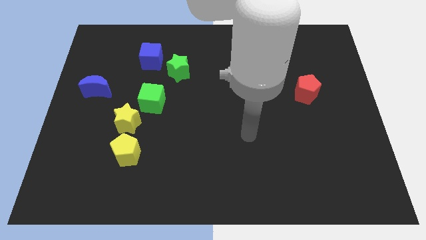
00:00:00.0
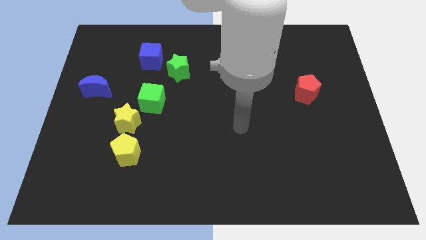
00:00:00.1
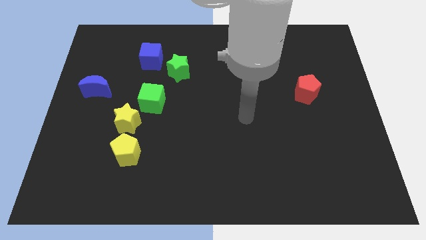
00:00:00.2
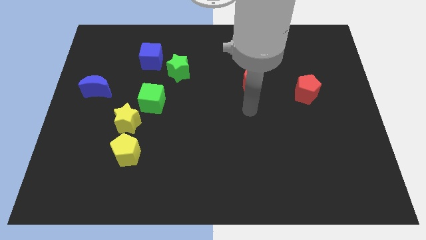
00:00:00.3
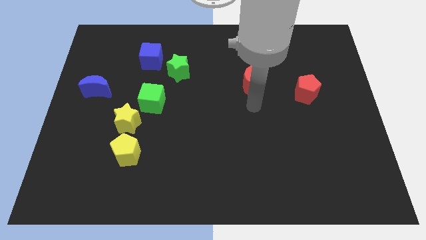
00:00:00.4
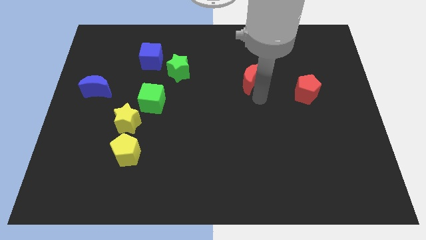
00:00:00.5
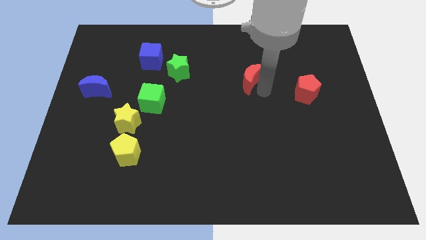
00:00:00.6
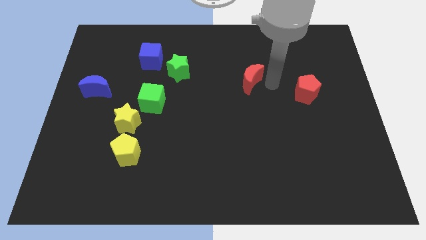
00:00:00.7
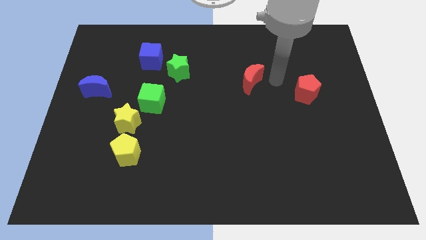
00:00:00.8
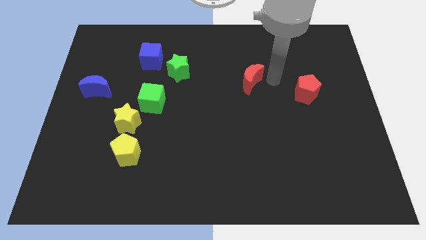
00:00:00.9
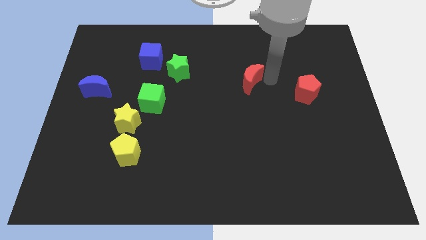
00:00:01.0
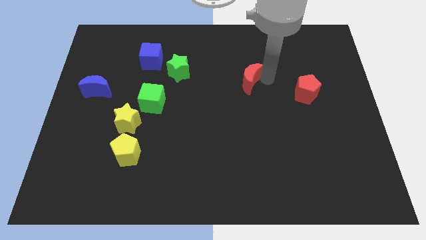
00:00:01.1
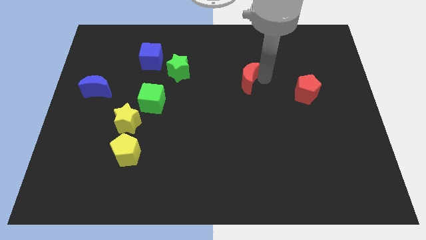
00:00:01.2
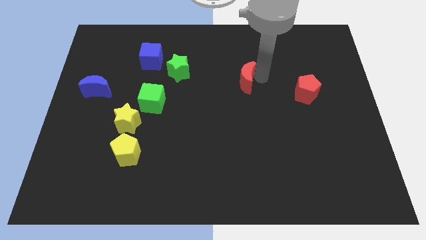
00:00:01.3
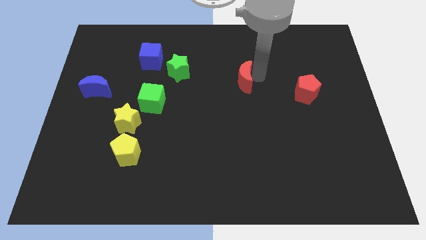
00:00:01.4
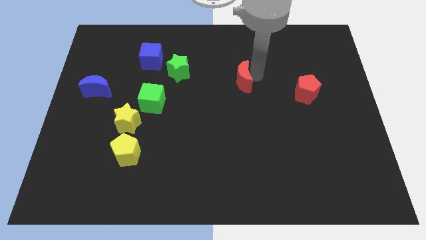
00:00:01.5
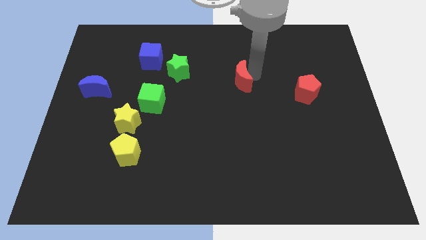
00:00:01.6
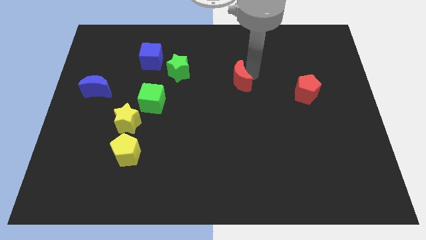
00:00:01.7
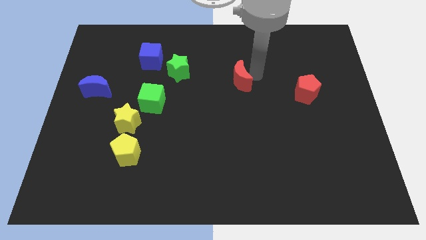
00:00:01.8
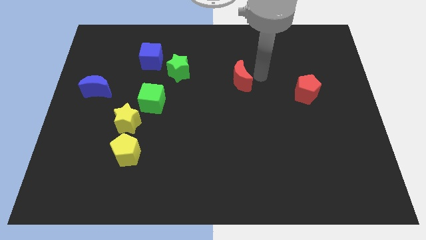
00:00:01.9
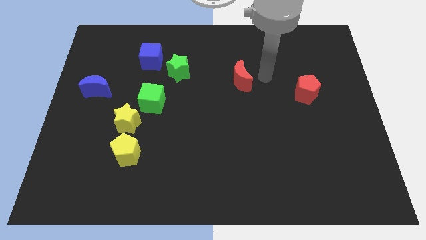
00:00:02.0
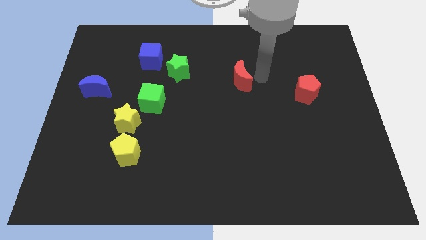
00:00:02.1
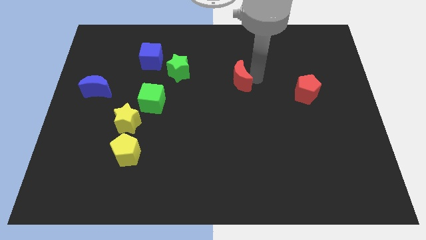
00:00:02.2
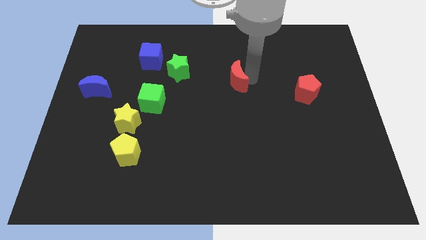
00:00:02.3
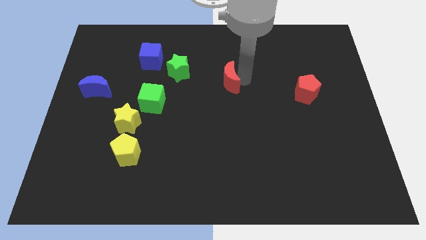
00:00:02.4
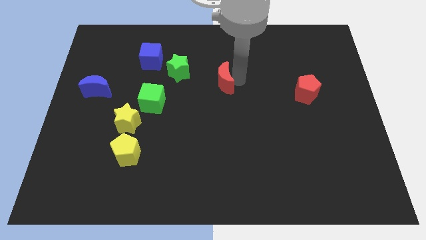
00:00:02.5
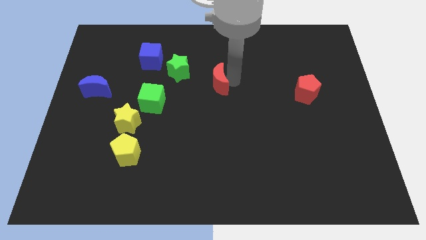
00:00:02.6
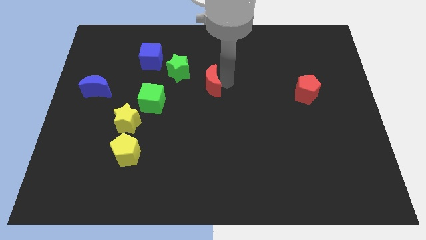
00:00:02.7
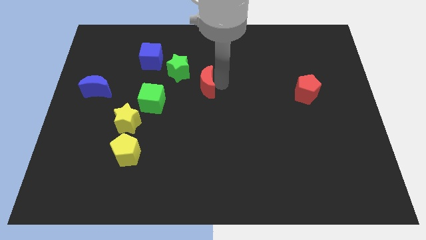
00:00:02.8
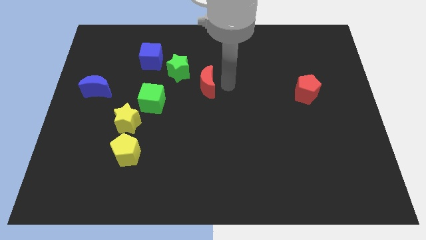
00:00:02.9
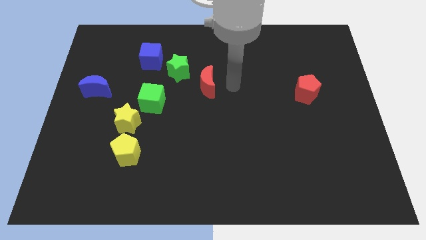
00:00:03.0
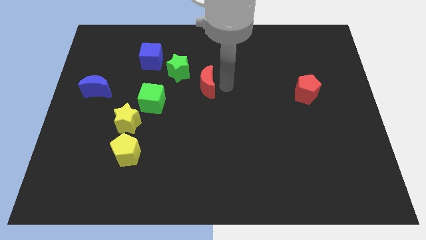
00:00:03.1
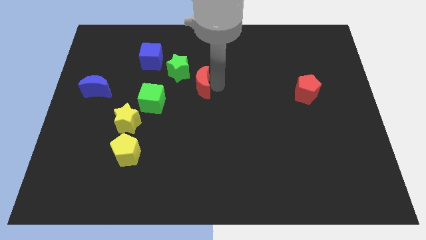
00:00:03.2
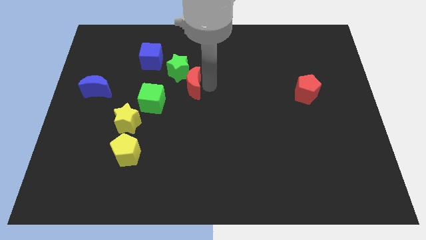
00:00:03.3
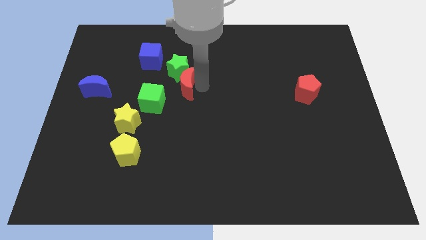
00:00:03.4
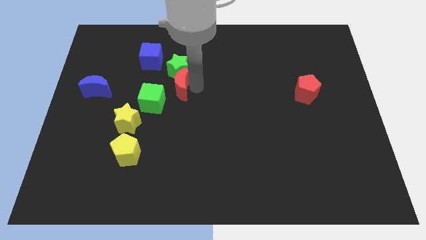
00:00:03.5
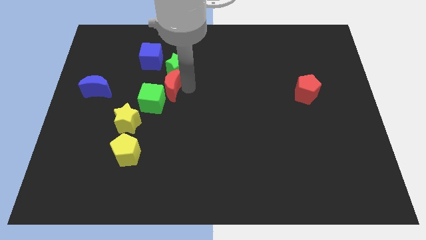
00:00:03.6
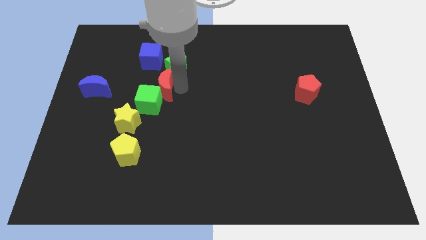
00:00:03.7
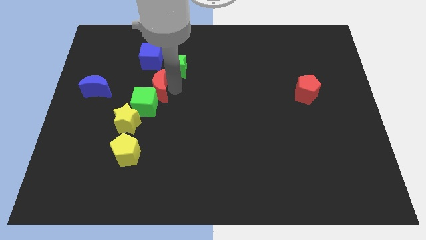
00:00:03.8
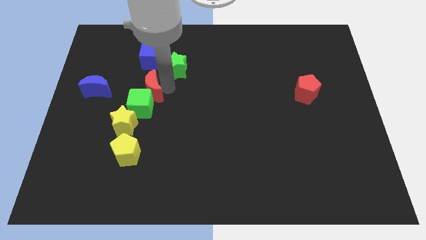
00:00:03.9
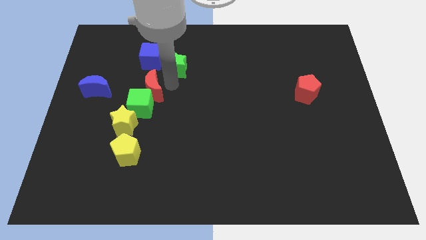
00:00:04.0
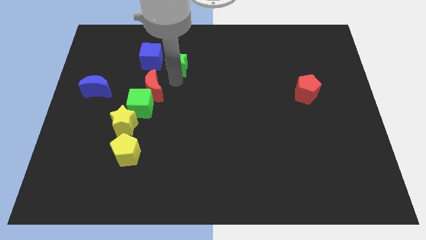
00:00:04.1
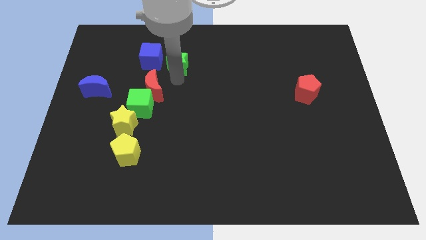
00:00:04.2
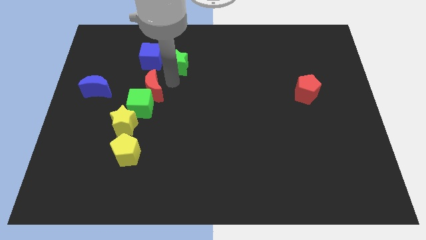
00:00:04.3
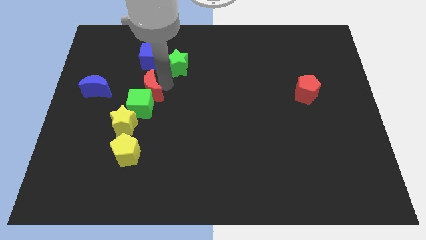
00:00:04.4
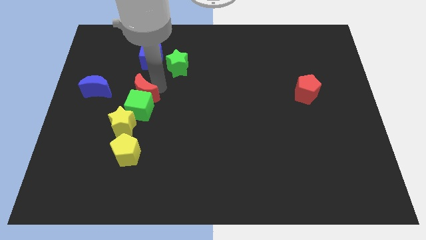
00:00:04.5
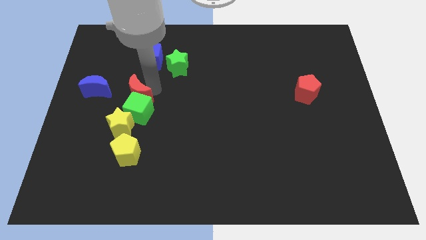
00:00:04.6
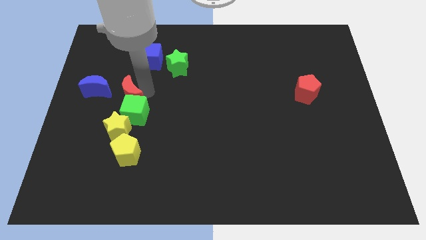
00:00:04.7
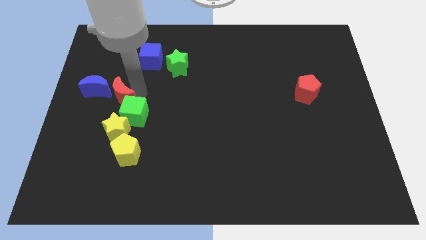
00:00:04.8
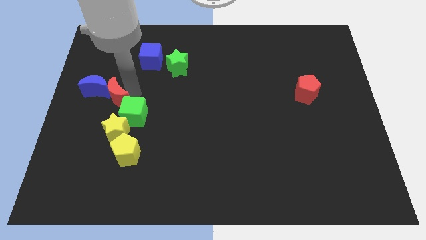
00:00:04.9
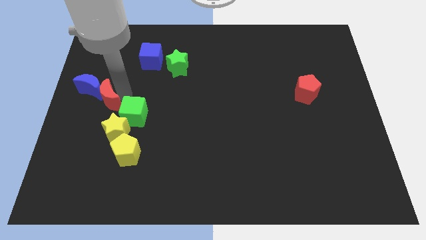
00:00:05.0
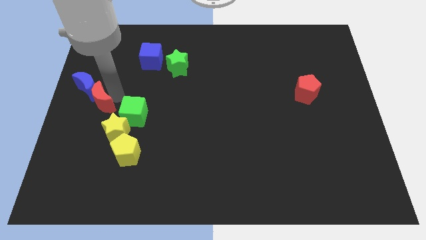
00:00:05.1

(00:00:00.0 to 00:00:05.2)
slide the red moon to the center left

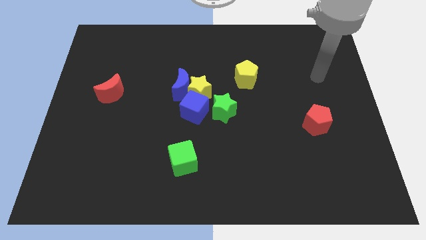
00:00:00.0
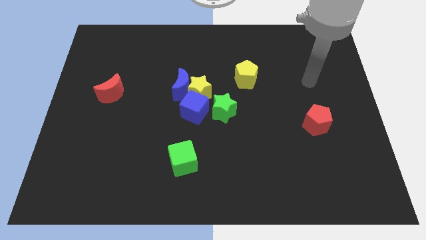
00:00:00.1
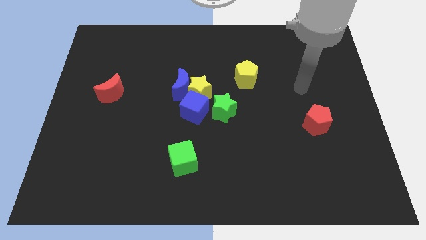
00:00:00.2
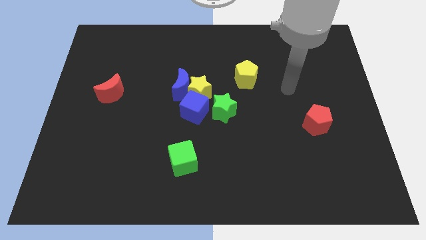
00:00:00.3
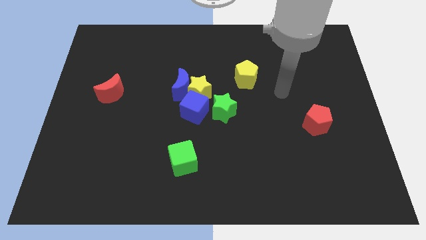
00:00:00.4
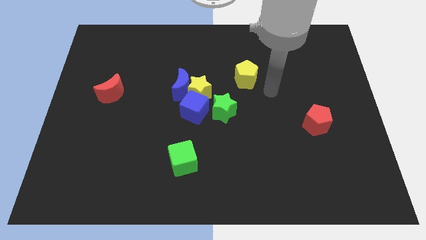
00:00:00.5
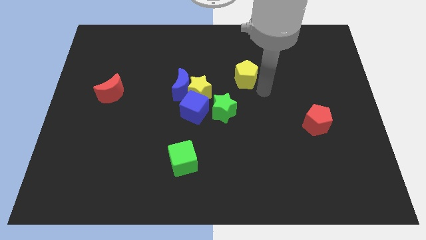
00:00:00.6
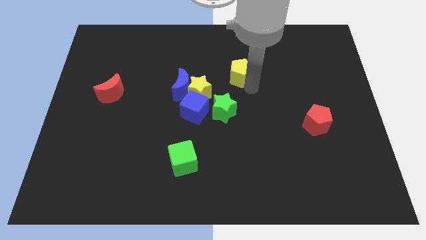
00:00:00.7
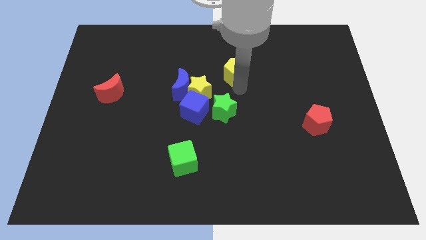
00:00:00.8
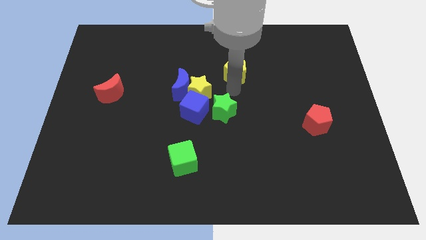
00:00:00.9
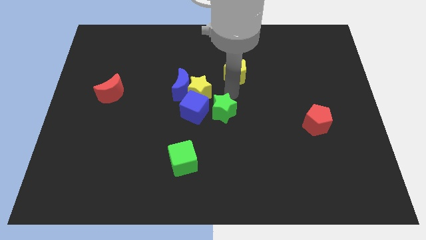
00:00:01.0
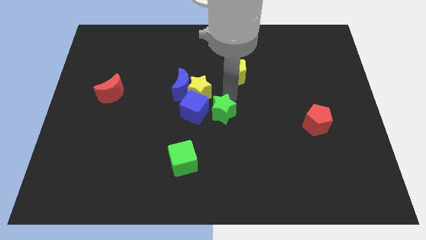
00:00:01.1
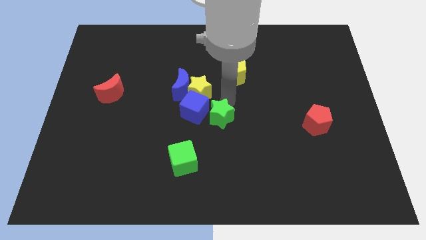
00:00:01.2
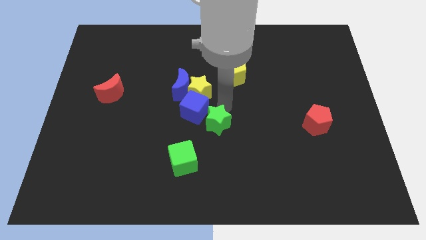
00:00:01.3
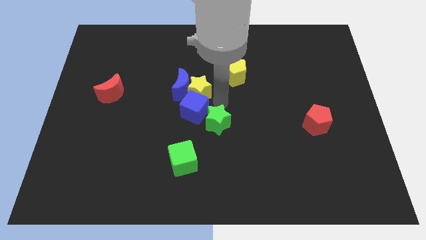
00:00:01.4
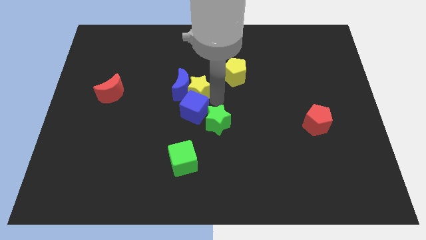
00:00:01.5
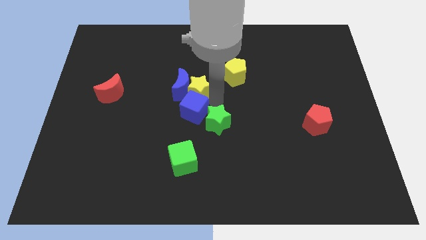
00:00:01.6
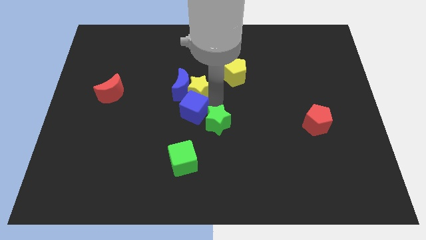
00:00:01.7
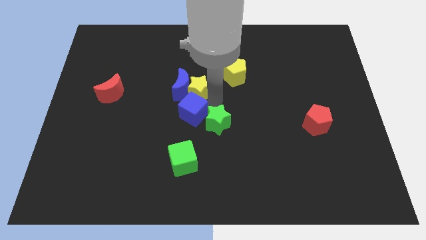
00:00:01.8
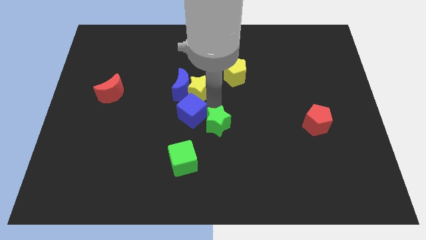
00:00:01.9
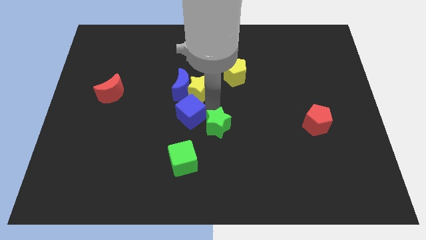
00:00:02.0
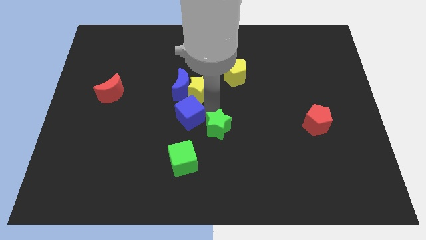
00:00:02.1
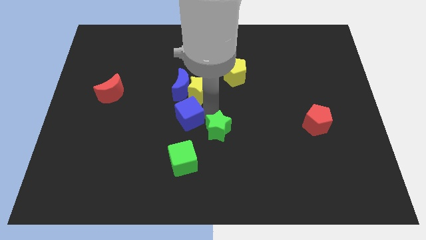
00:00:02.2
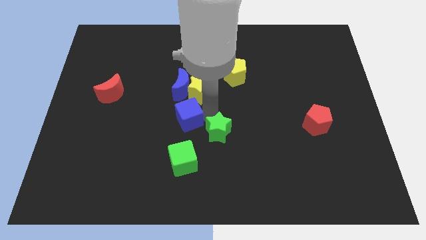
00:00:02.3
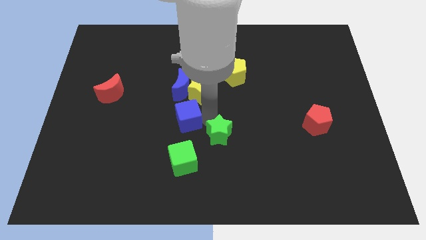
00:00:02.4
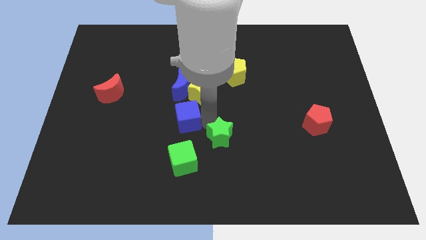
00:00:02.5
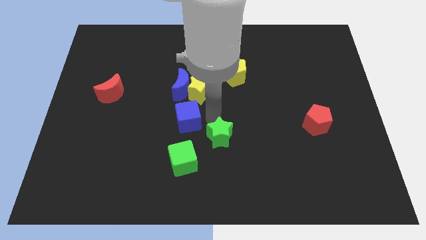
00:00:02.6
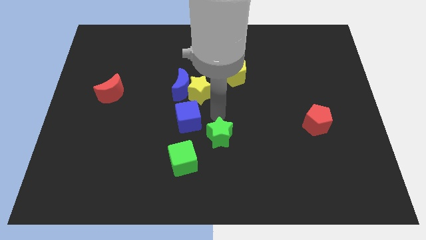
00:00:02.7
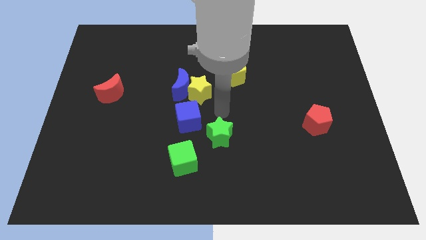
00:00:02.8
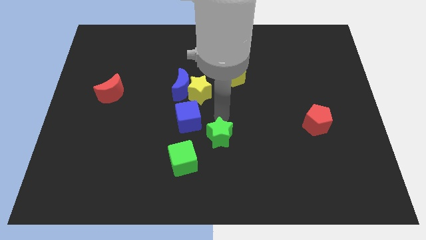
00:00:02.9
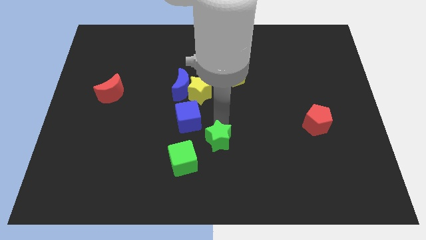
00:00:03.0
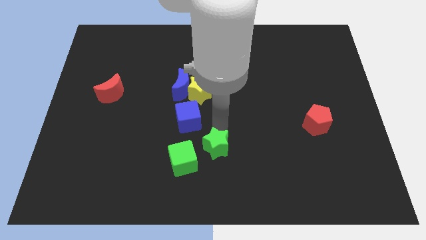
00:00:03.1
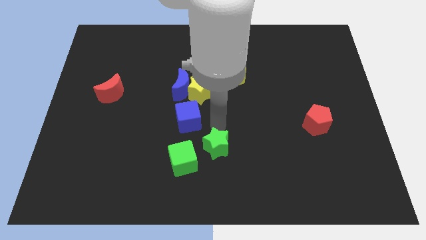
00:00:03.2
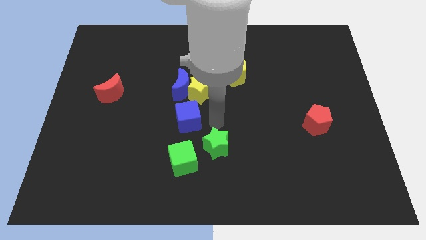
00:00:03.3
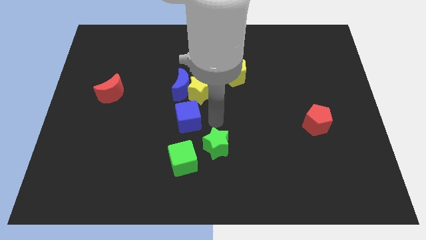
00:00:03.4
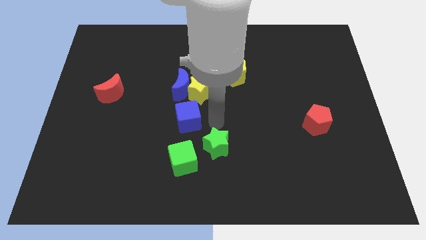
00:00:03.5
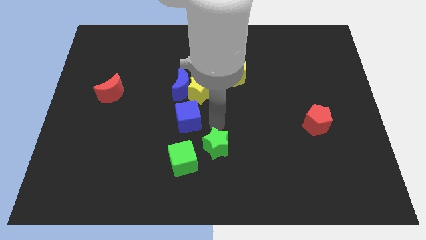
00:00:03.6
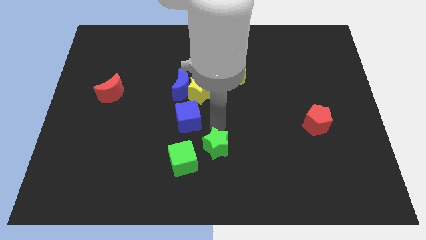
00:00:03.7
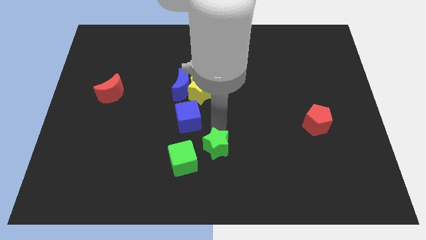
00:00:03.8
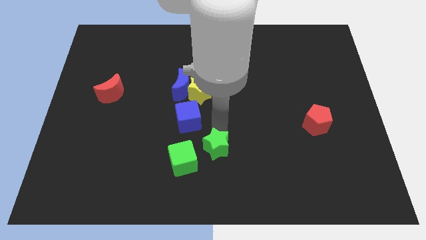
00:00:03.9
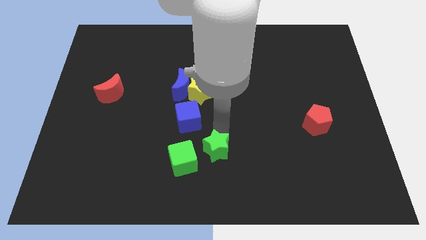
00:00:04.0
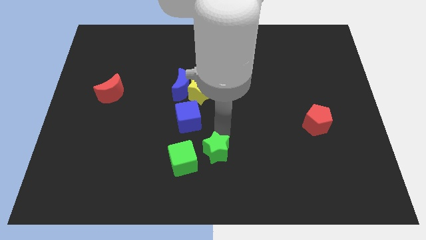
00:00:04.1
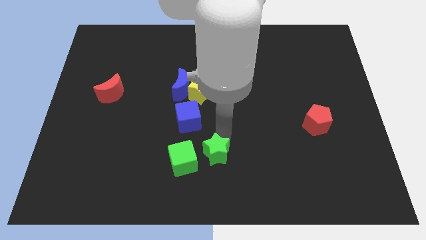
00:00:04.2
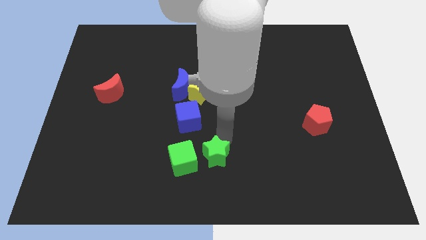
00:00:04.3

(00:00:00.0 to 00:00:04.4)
push the green star to the bottom
